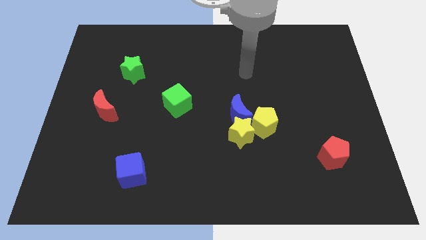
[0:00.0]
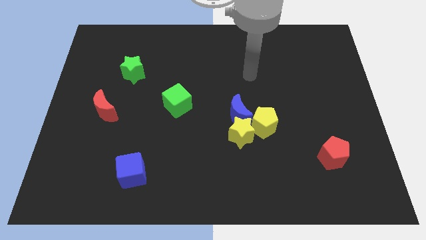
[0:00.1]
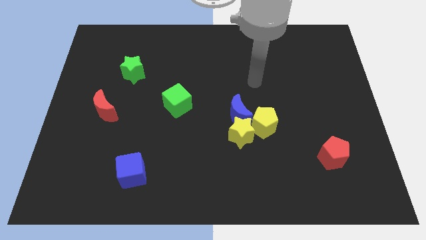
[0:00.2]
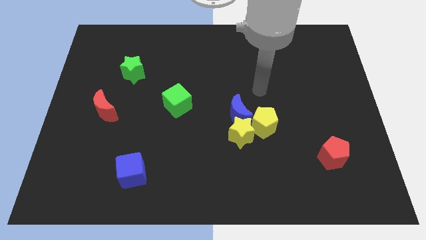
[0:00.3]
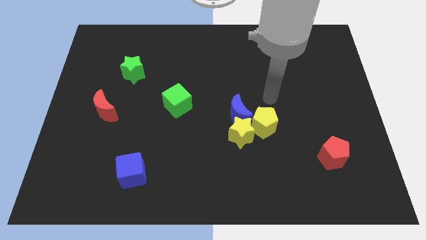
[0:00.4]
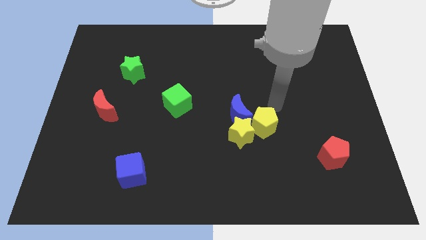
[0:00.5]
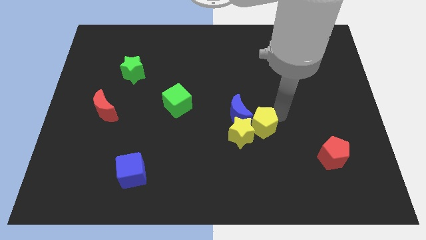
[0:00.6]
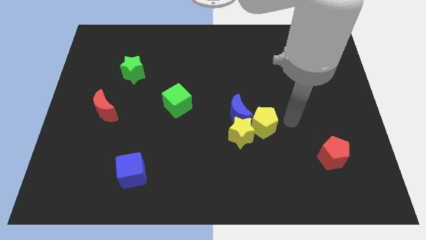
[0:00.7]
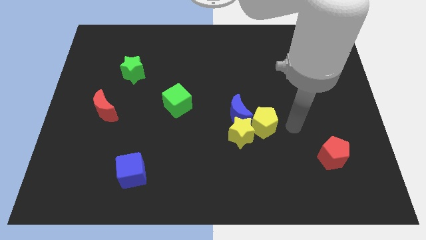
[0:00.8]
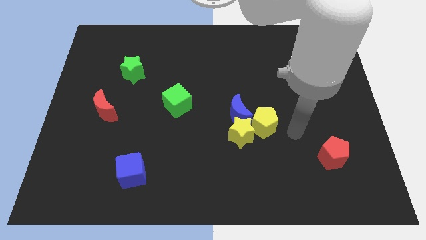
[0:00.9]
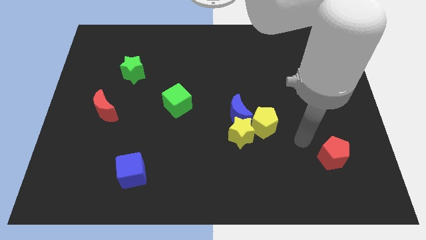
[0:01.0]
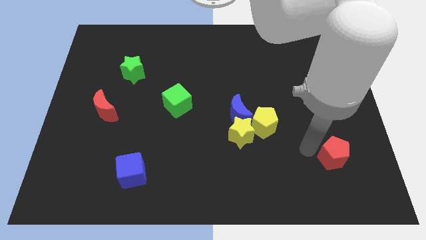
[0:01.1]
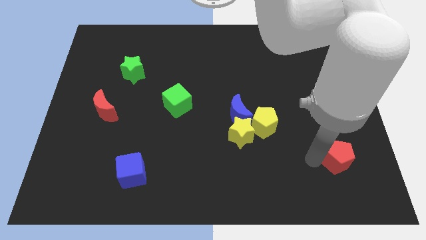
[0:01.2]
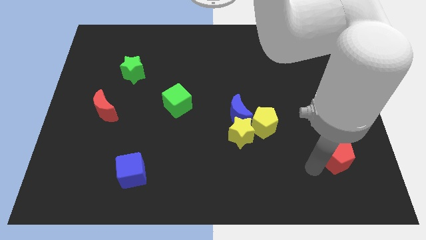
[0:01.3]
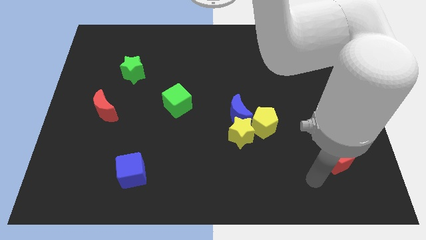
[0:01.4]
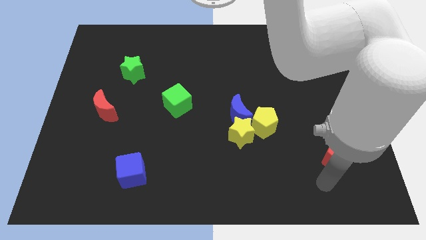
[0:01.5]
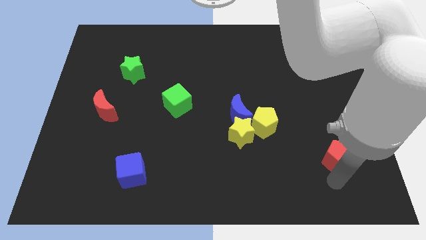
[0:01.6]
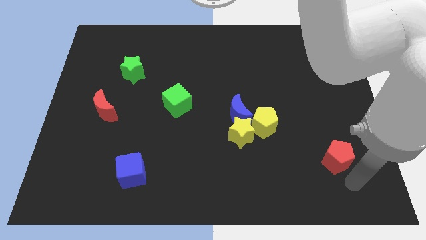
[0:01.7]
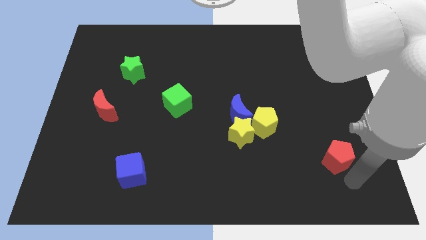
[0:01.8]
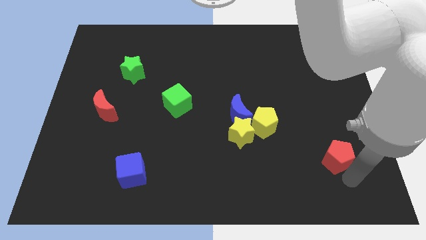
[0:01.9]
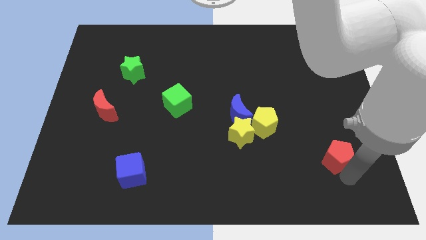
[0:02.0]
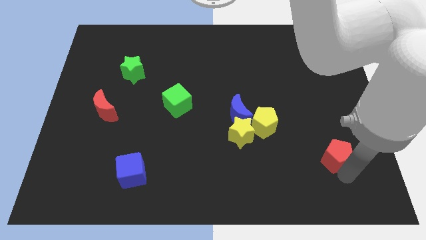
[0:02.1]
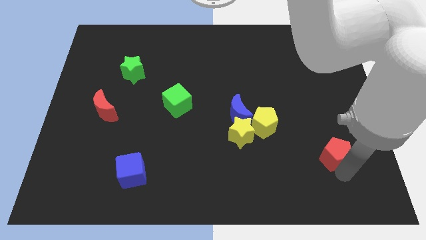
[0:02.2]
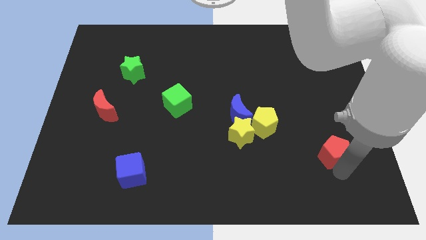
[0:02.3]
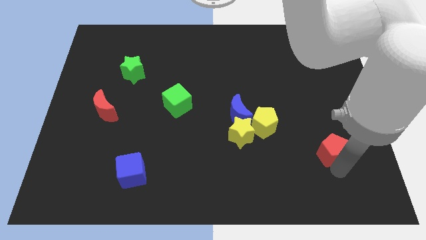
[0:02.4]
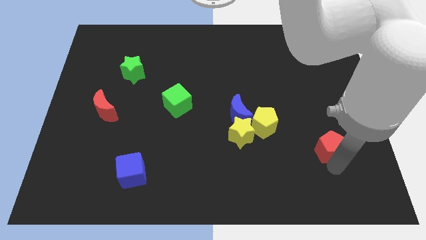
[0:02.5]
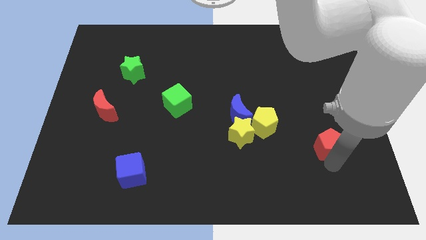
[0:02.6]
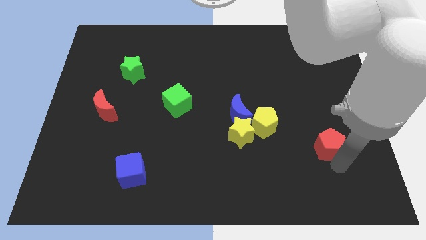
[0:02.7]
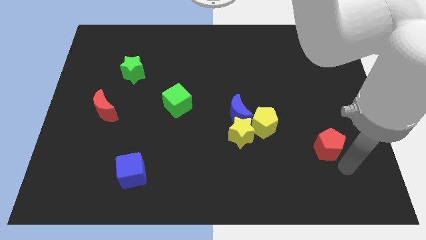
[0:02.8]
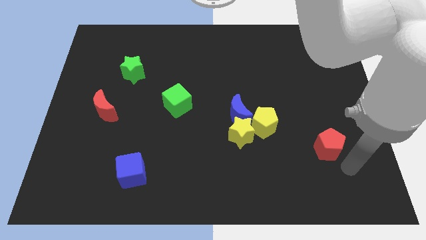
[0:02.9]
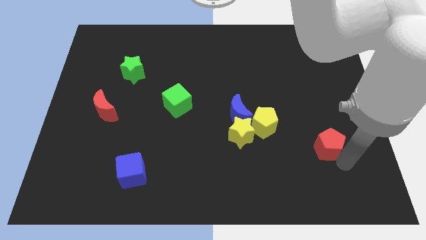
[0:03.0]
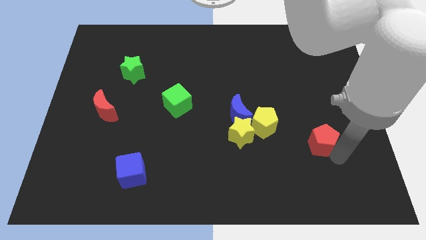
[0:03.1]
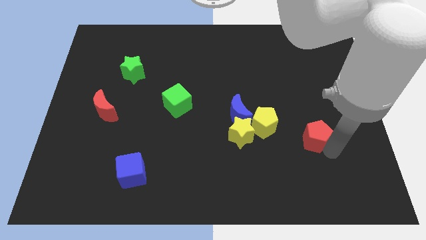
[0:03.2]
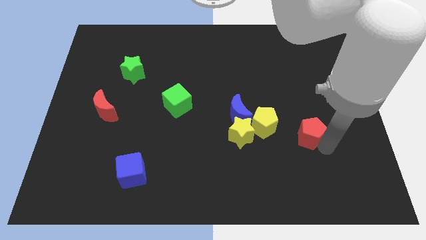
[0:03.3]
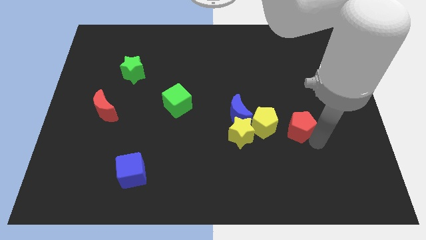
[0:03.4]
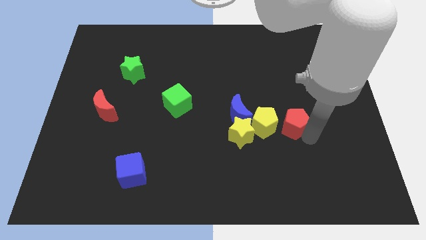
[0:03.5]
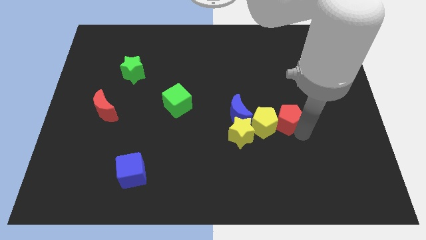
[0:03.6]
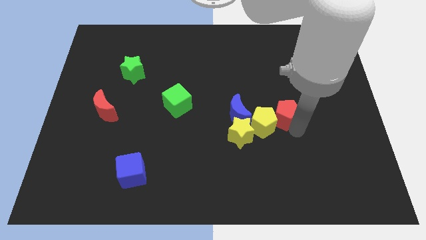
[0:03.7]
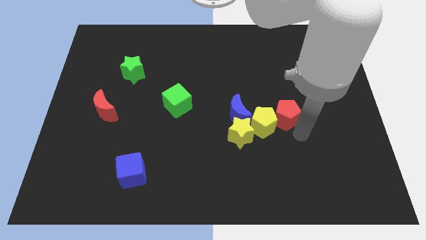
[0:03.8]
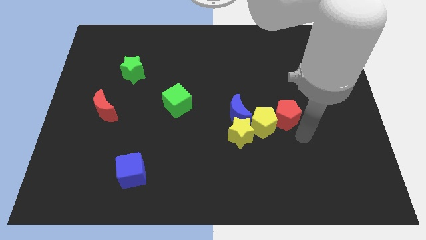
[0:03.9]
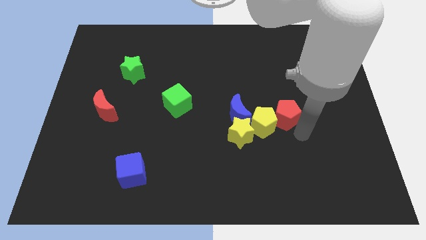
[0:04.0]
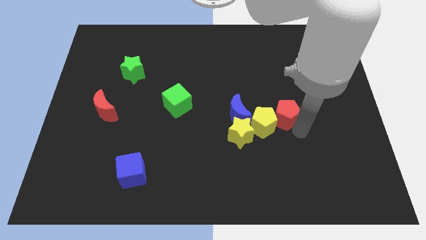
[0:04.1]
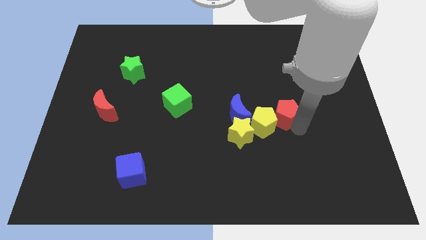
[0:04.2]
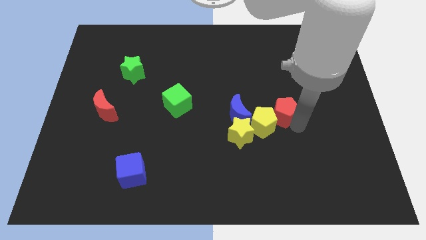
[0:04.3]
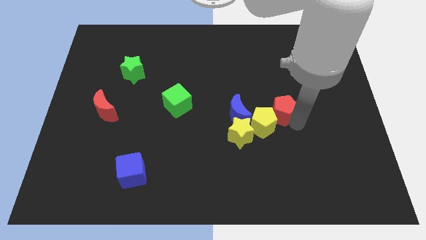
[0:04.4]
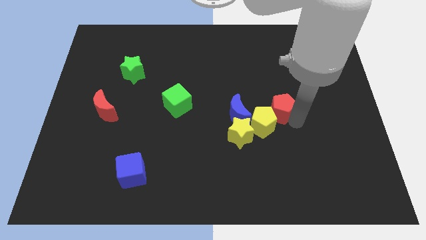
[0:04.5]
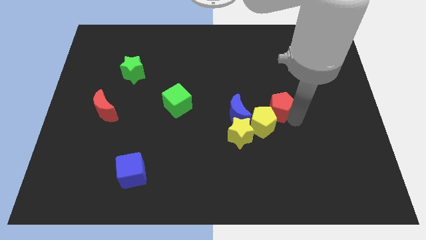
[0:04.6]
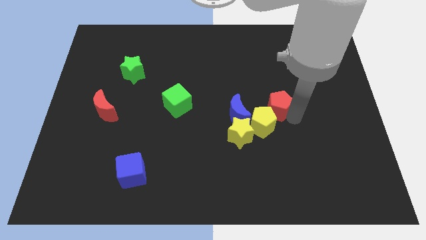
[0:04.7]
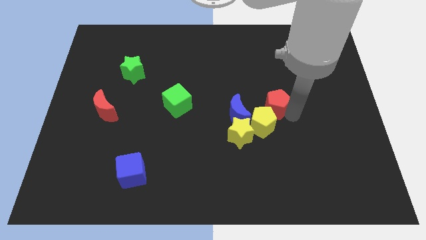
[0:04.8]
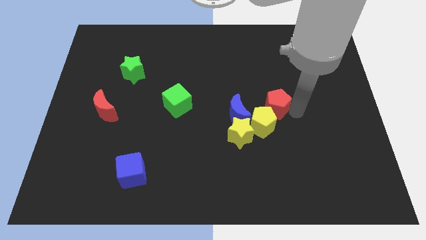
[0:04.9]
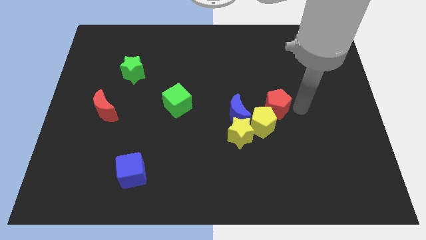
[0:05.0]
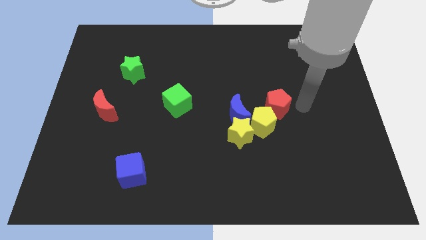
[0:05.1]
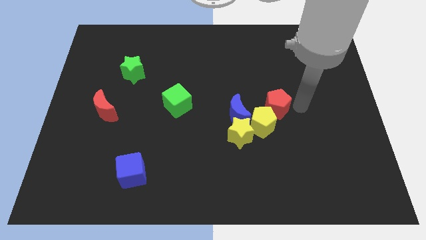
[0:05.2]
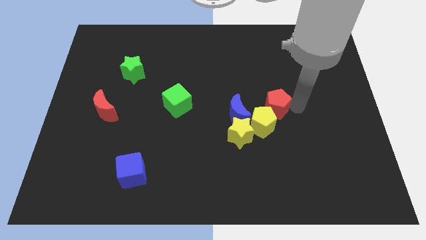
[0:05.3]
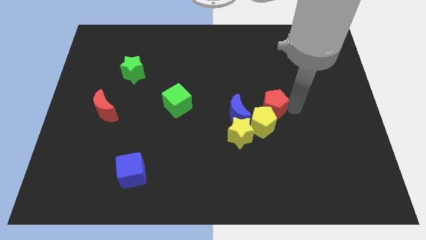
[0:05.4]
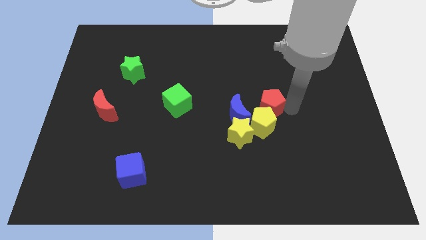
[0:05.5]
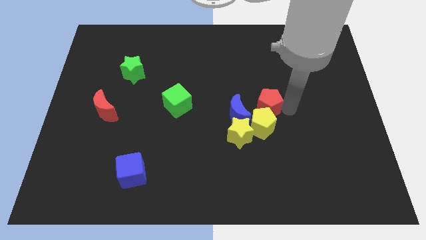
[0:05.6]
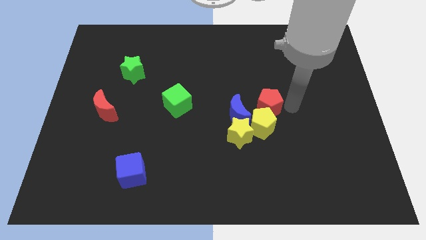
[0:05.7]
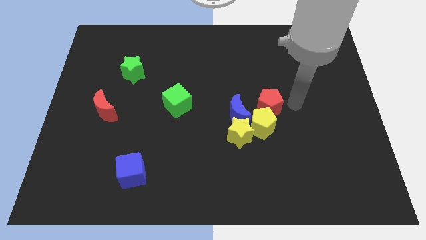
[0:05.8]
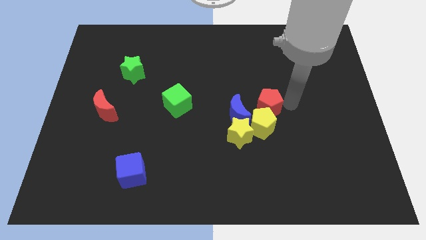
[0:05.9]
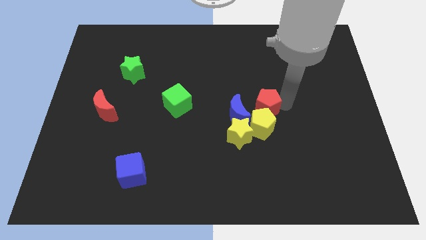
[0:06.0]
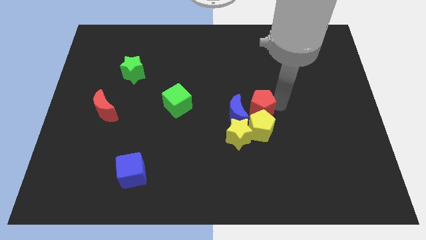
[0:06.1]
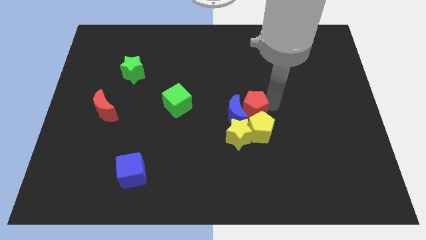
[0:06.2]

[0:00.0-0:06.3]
put the red pentagon close to the blue moon

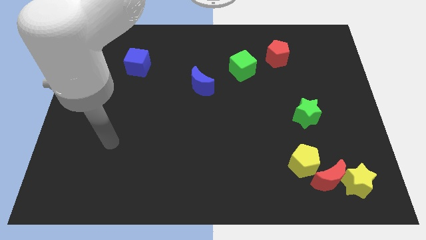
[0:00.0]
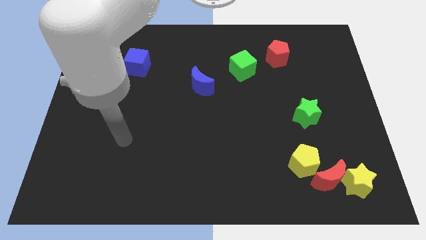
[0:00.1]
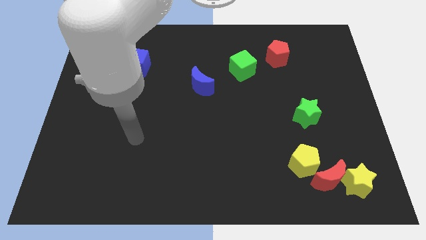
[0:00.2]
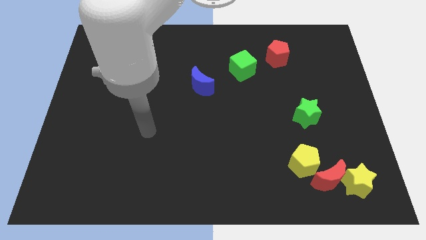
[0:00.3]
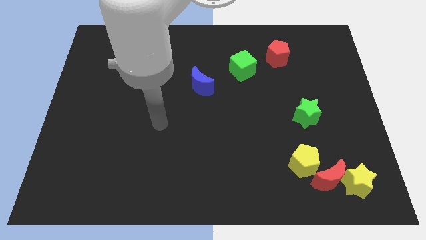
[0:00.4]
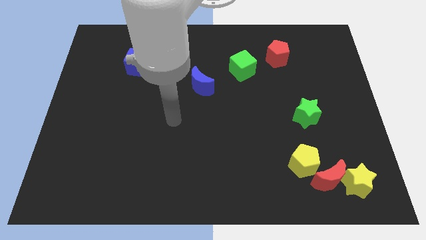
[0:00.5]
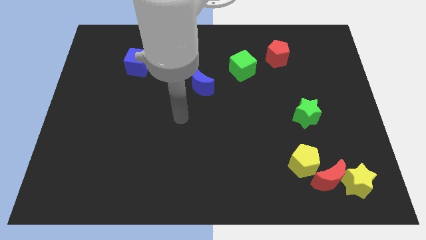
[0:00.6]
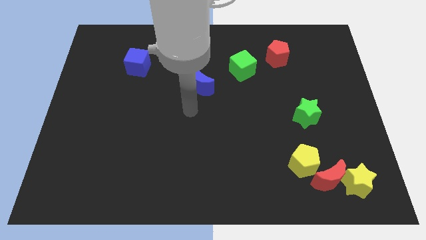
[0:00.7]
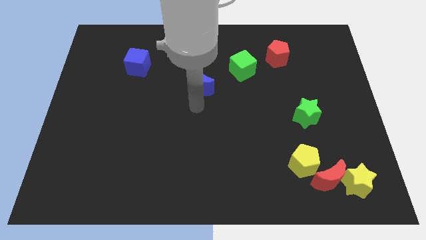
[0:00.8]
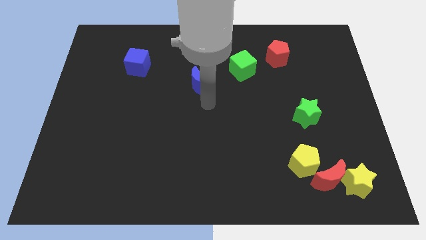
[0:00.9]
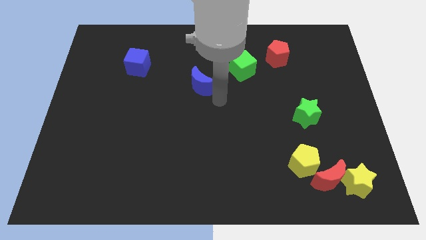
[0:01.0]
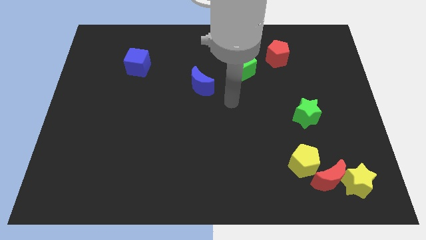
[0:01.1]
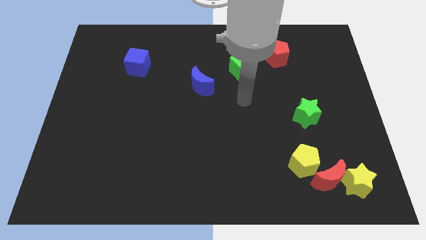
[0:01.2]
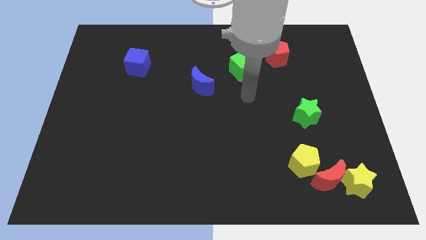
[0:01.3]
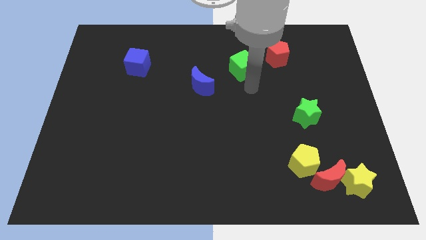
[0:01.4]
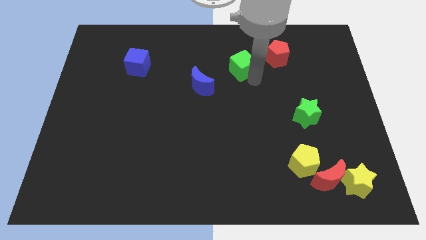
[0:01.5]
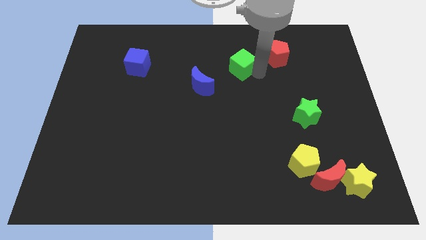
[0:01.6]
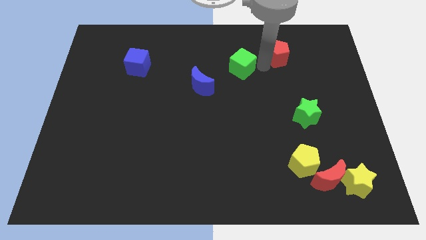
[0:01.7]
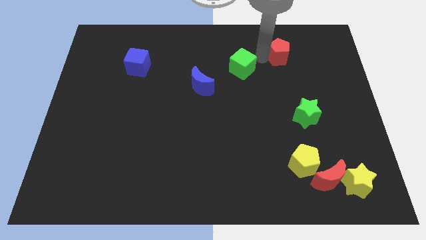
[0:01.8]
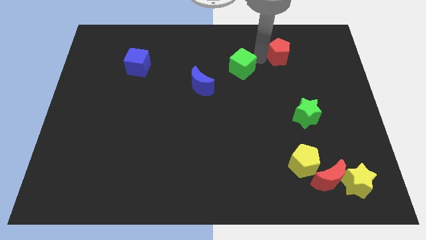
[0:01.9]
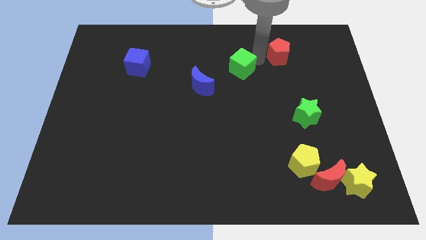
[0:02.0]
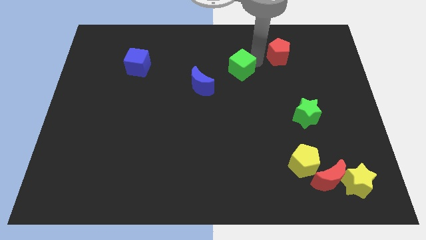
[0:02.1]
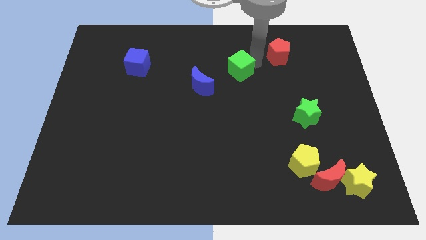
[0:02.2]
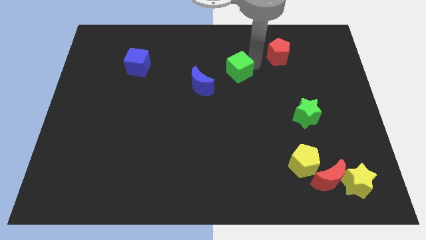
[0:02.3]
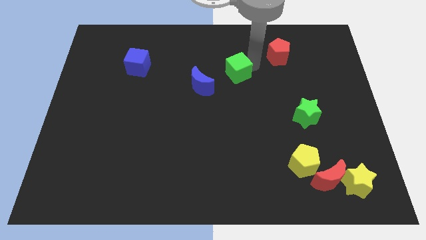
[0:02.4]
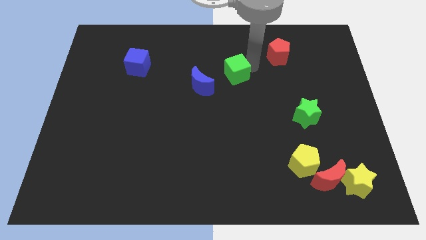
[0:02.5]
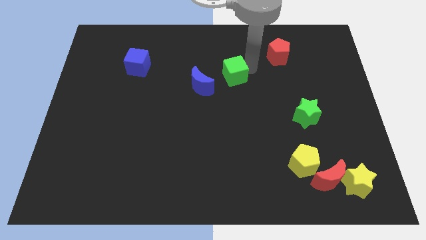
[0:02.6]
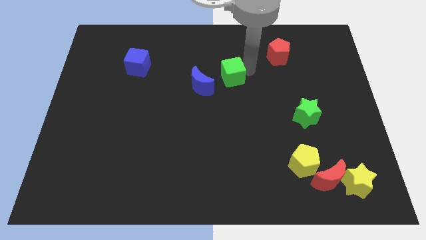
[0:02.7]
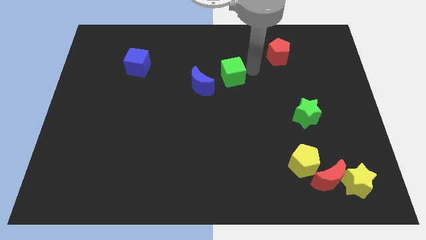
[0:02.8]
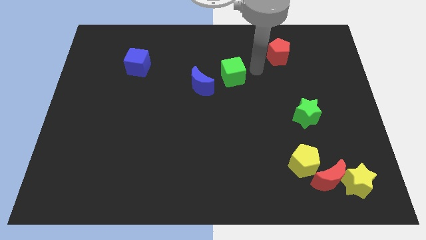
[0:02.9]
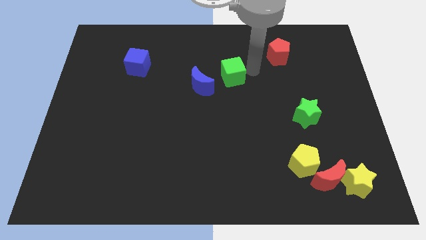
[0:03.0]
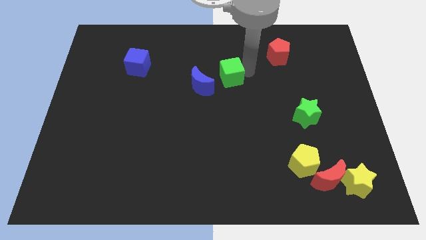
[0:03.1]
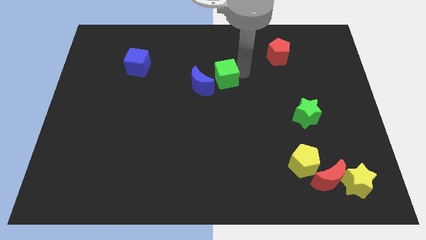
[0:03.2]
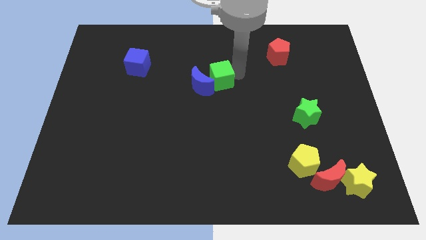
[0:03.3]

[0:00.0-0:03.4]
put the green cube next to the blue moon
